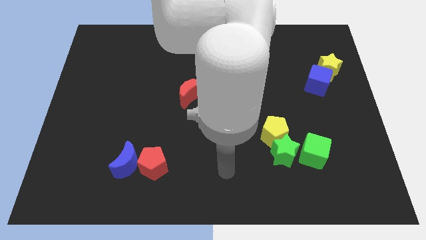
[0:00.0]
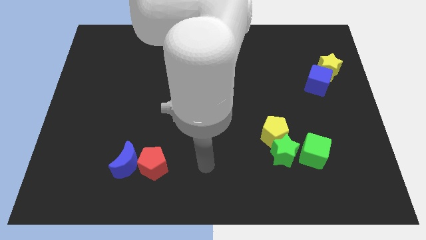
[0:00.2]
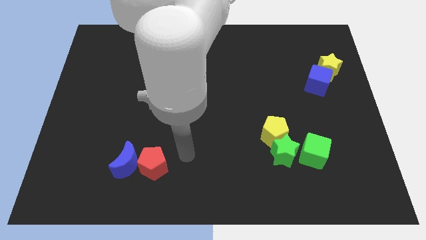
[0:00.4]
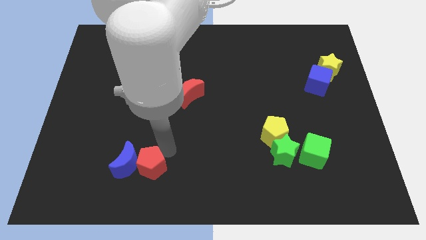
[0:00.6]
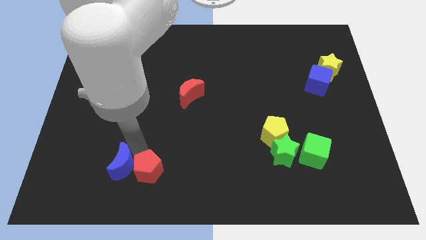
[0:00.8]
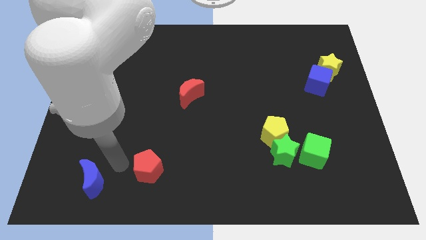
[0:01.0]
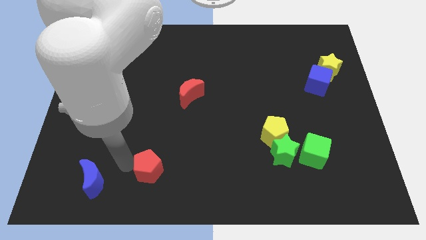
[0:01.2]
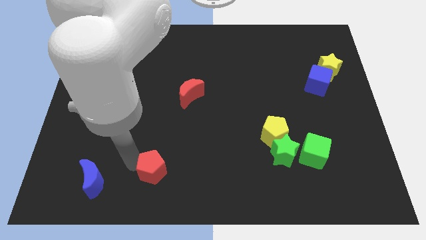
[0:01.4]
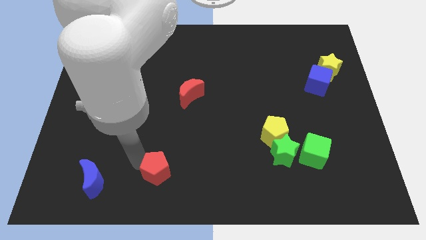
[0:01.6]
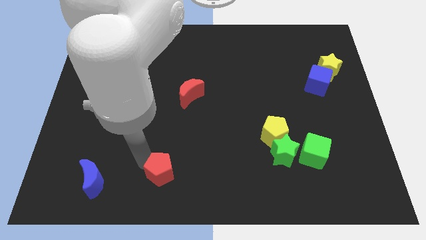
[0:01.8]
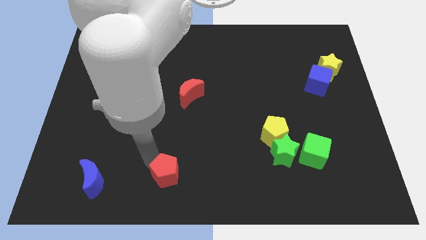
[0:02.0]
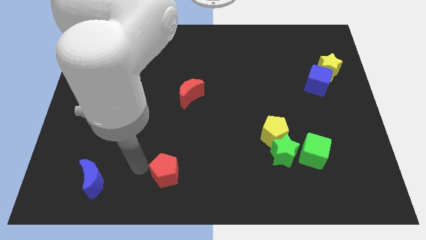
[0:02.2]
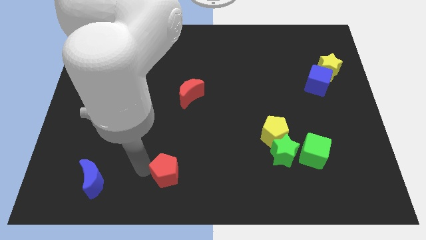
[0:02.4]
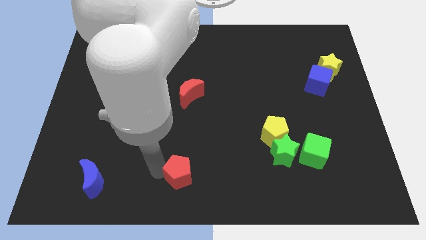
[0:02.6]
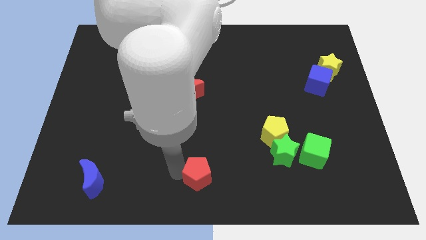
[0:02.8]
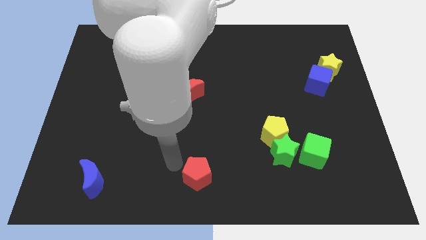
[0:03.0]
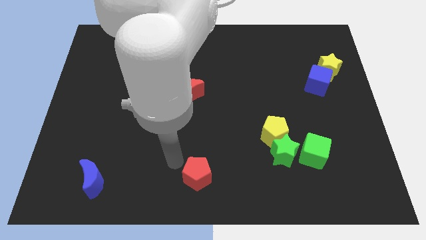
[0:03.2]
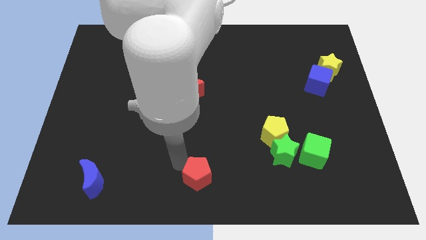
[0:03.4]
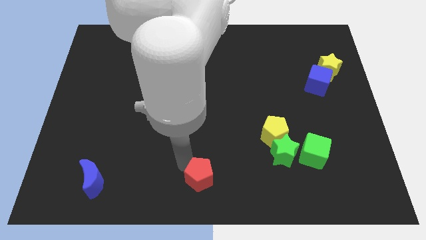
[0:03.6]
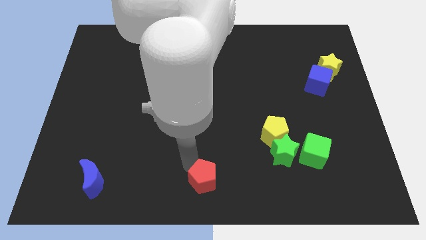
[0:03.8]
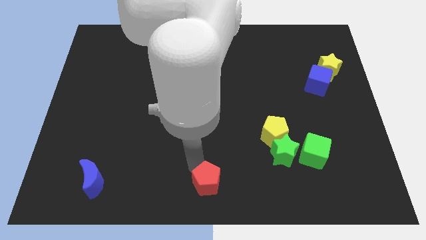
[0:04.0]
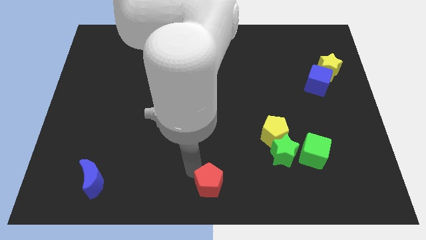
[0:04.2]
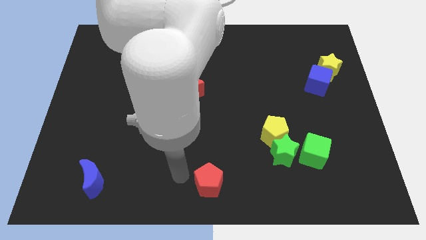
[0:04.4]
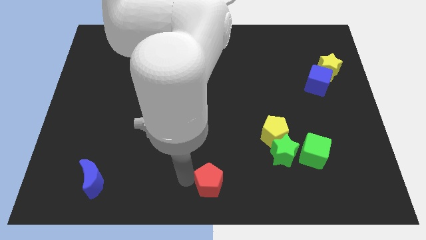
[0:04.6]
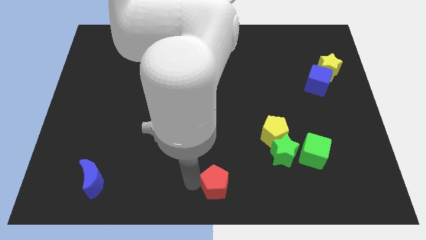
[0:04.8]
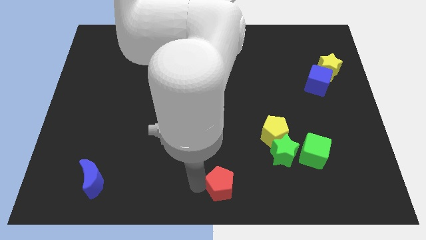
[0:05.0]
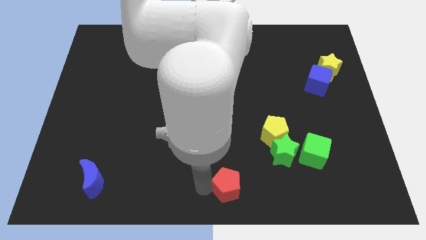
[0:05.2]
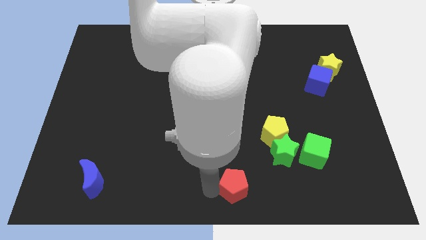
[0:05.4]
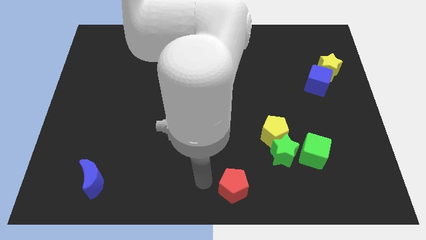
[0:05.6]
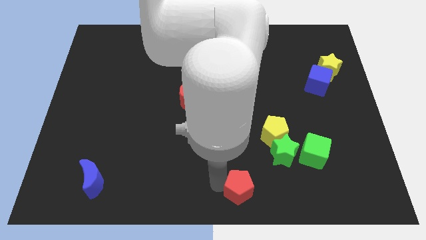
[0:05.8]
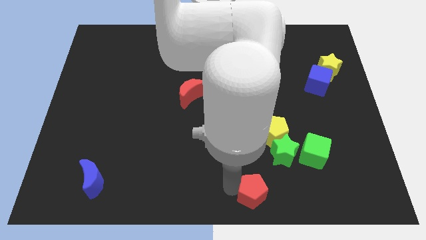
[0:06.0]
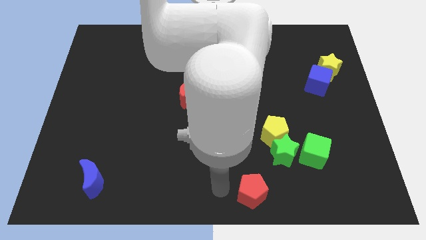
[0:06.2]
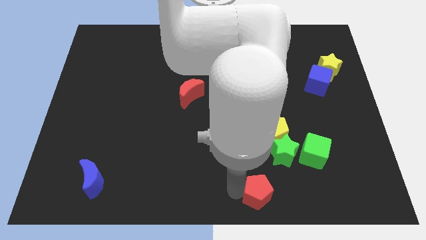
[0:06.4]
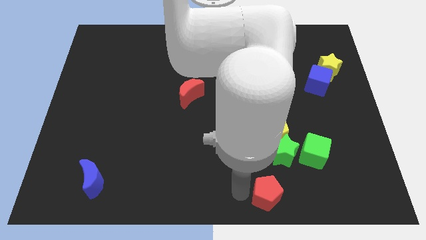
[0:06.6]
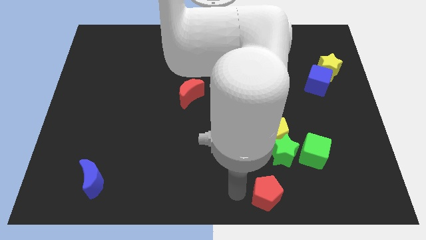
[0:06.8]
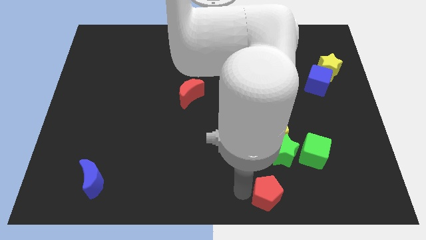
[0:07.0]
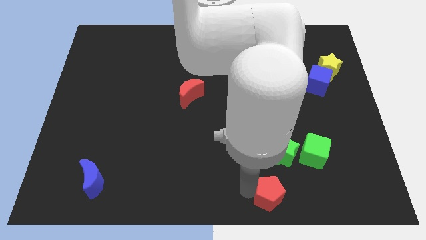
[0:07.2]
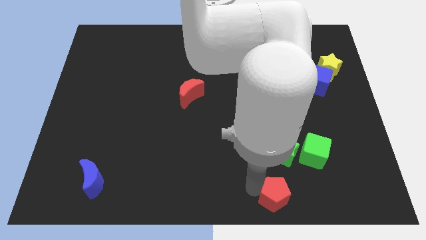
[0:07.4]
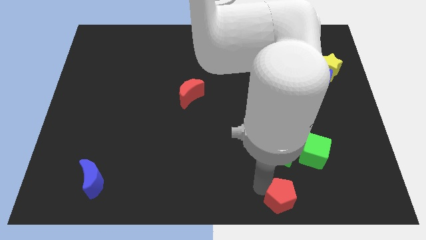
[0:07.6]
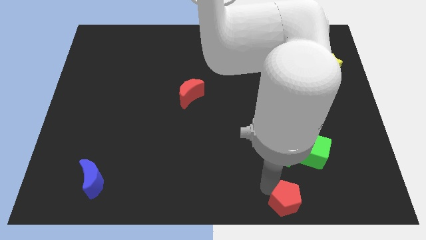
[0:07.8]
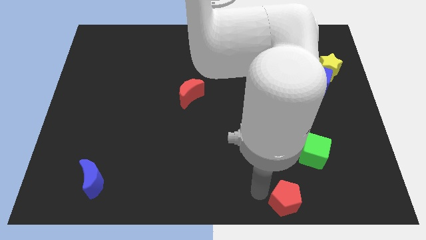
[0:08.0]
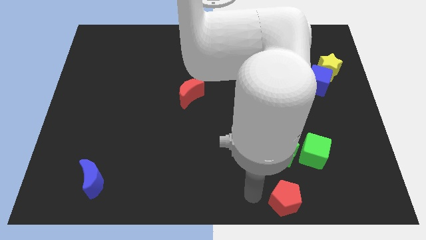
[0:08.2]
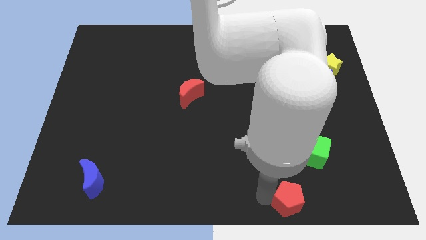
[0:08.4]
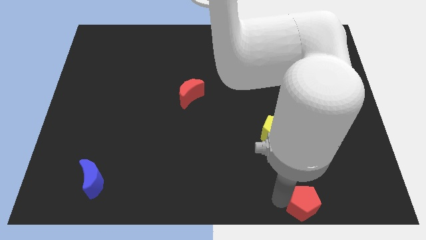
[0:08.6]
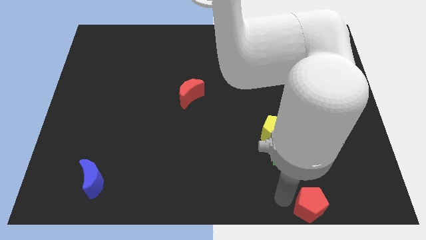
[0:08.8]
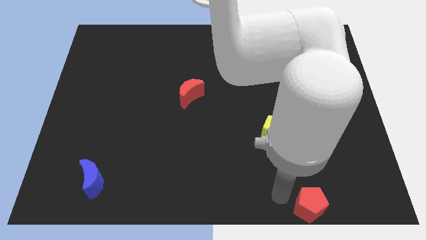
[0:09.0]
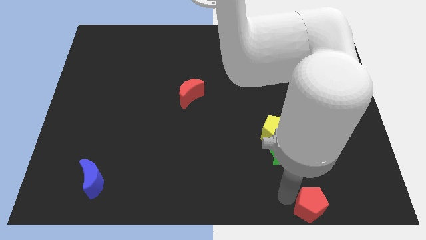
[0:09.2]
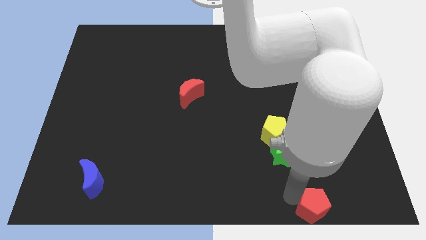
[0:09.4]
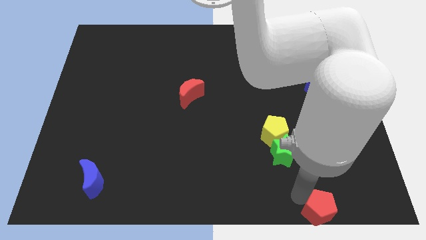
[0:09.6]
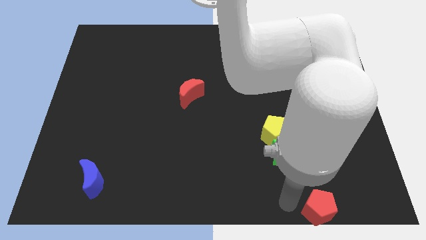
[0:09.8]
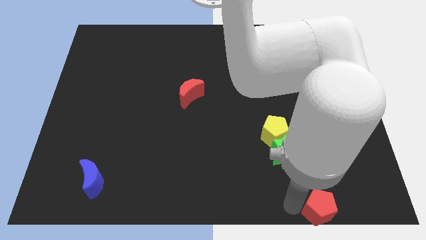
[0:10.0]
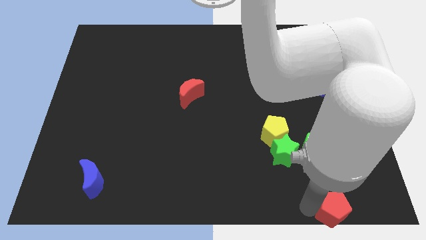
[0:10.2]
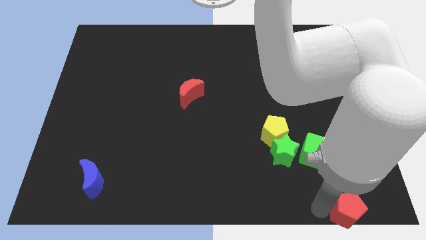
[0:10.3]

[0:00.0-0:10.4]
put the red pentagon to the bottom right corner

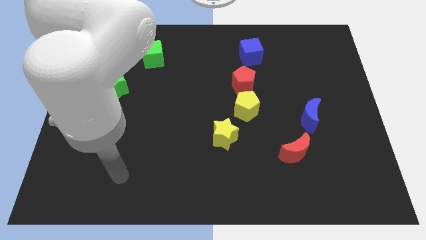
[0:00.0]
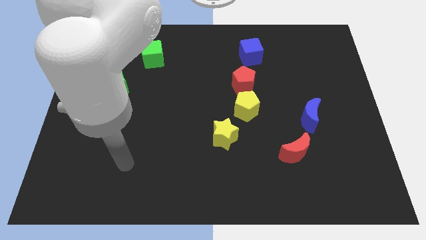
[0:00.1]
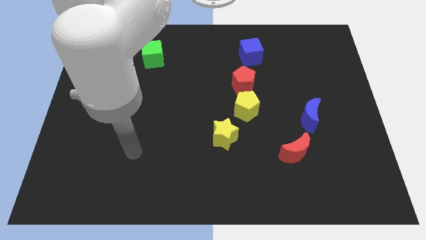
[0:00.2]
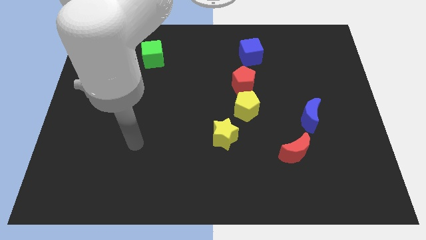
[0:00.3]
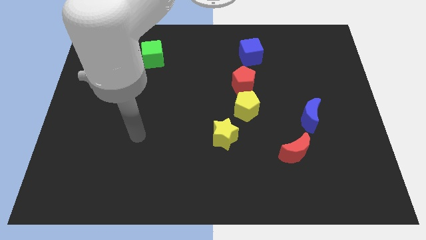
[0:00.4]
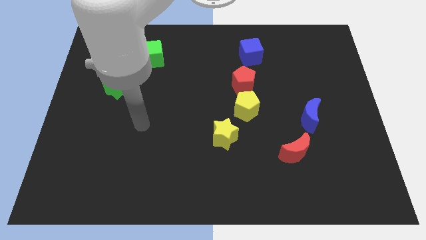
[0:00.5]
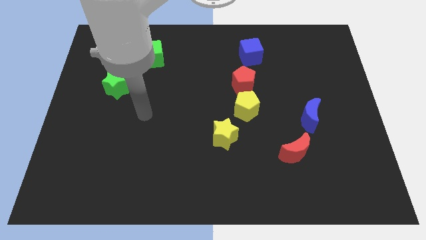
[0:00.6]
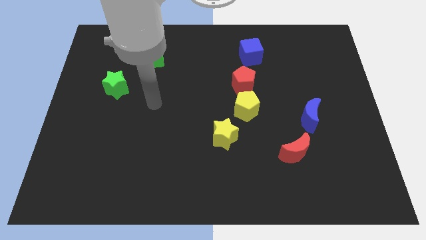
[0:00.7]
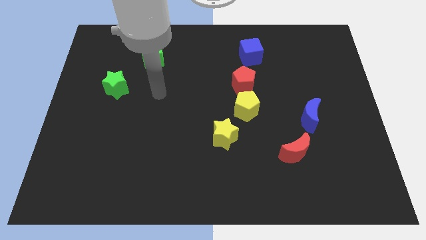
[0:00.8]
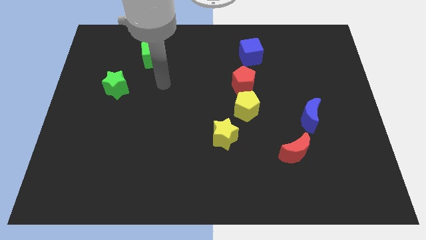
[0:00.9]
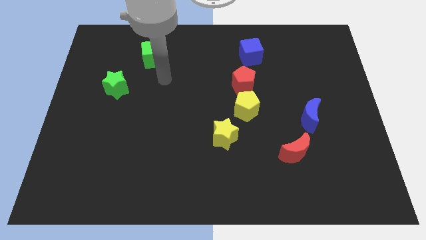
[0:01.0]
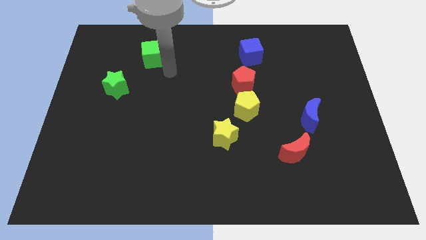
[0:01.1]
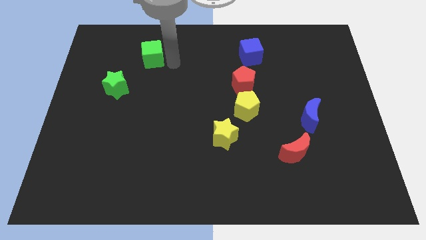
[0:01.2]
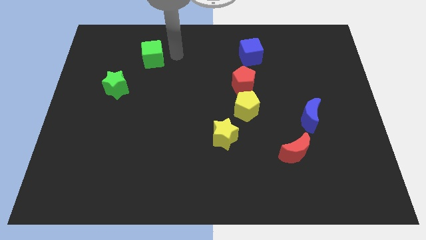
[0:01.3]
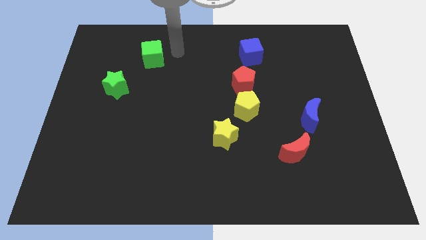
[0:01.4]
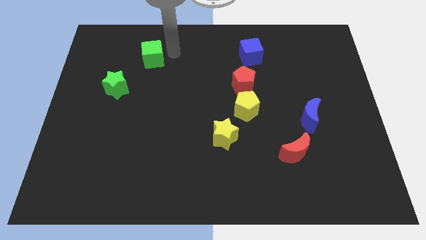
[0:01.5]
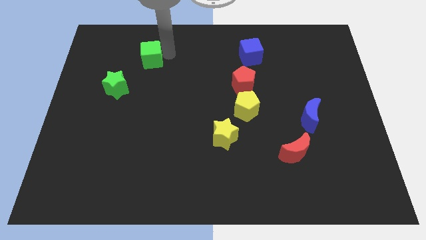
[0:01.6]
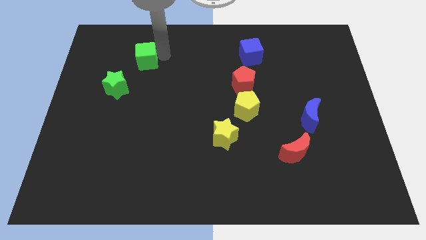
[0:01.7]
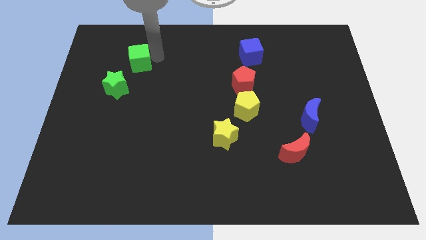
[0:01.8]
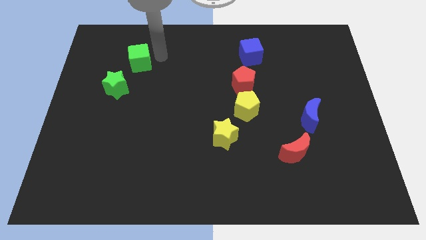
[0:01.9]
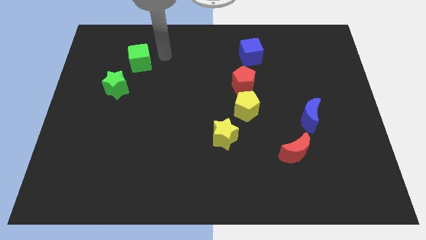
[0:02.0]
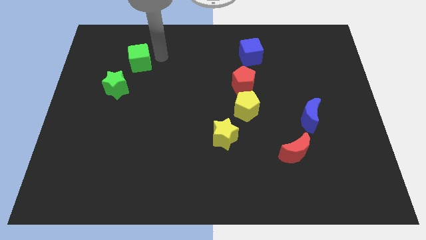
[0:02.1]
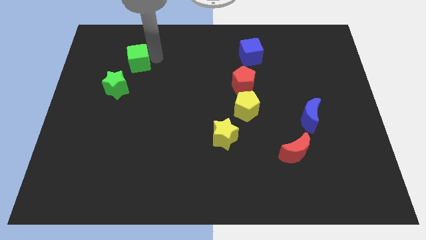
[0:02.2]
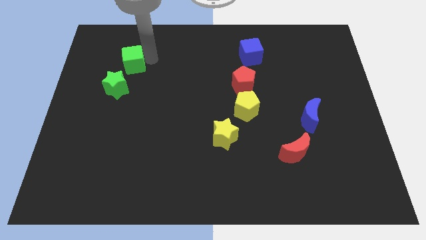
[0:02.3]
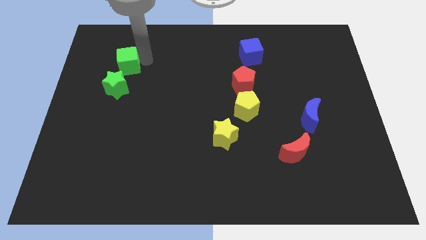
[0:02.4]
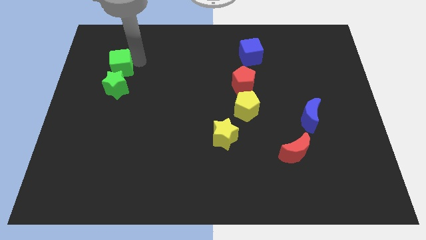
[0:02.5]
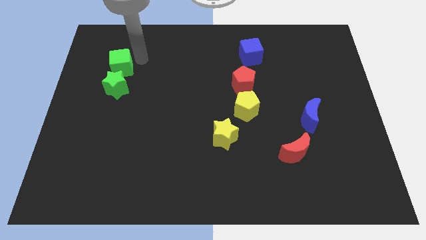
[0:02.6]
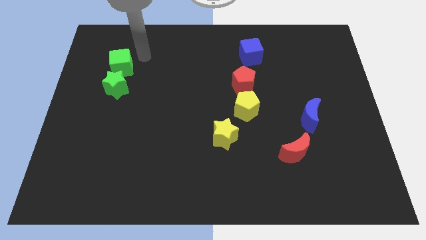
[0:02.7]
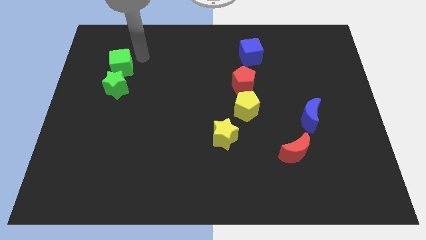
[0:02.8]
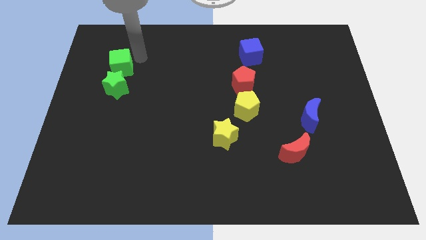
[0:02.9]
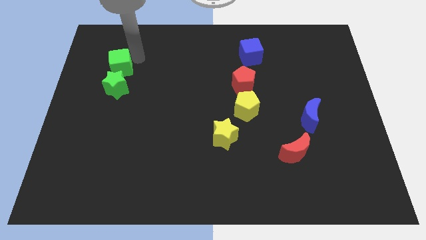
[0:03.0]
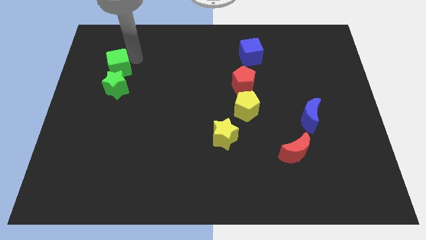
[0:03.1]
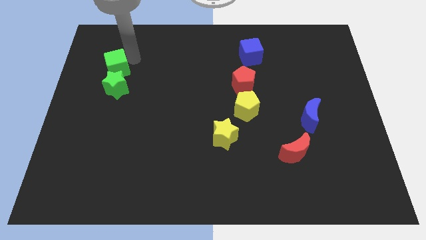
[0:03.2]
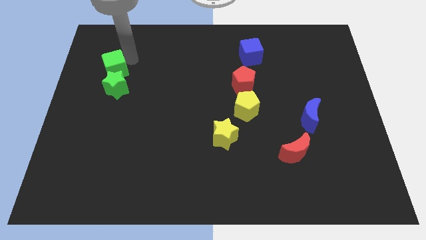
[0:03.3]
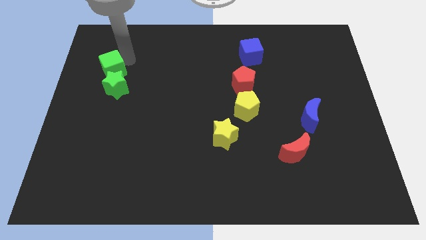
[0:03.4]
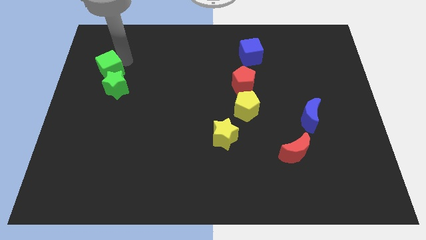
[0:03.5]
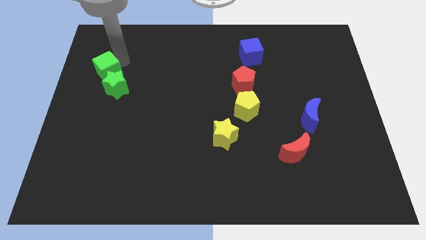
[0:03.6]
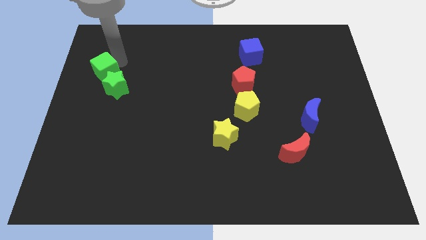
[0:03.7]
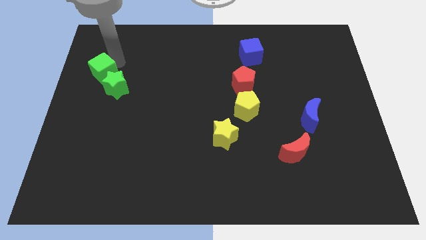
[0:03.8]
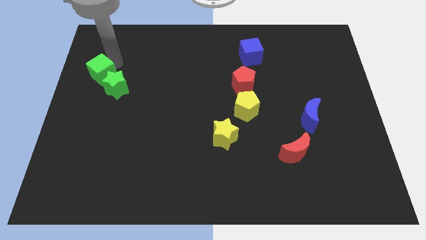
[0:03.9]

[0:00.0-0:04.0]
put the green cube to the left side of the board
